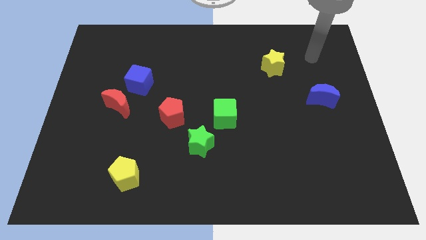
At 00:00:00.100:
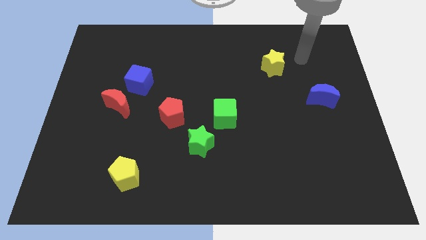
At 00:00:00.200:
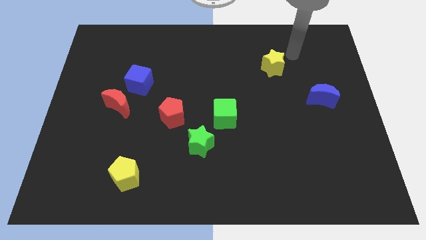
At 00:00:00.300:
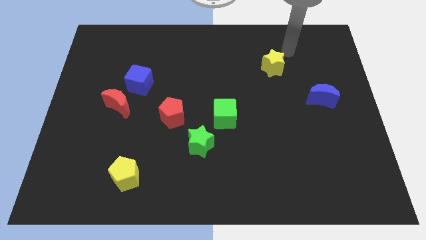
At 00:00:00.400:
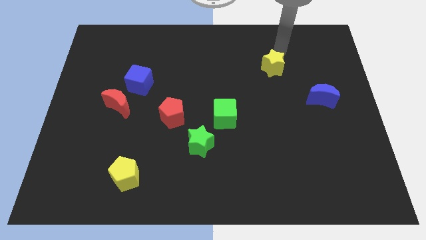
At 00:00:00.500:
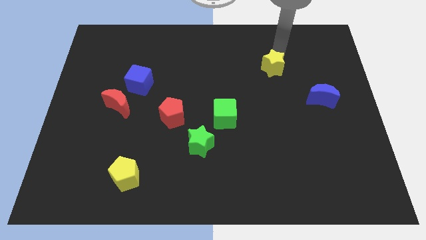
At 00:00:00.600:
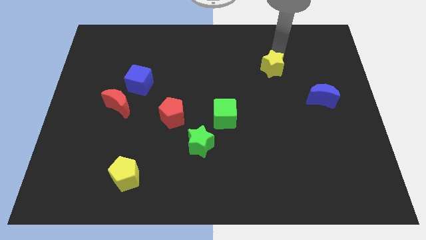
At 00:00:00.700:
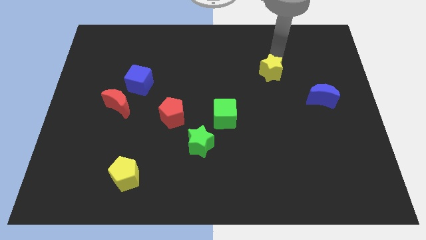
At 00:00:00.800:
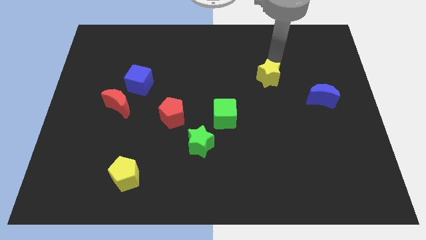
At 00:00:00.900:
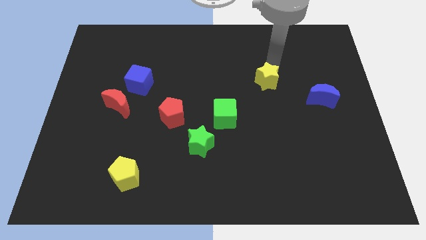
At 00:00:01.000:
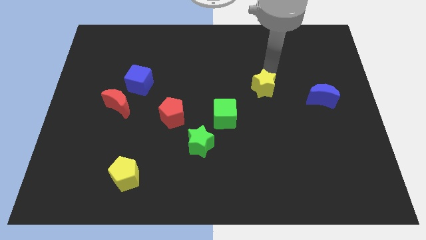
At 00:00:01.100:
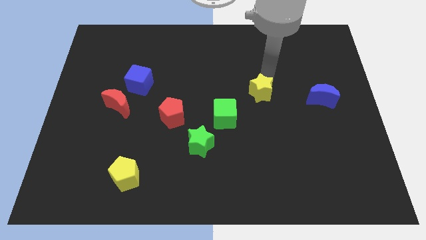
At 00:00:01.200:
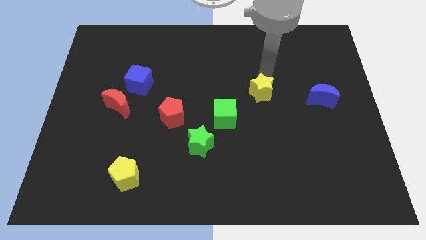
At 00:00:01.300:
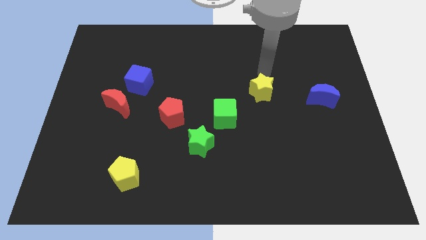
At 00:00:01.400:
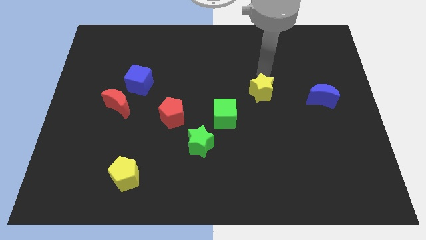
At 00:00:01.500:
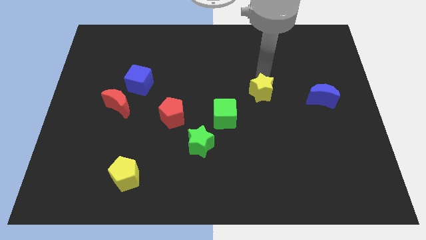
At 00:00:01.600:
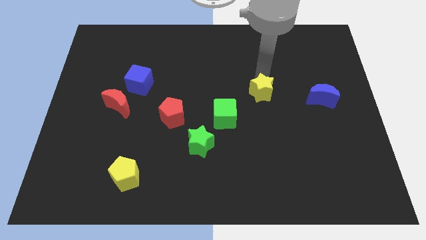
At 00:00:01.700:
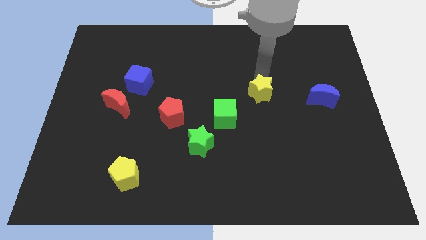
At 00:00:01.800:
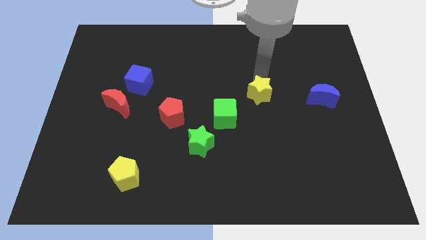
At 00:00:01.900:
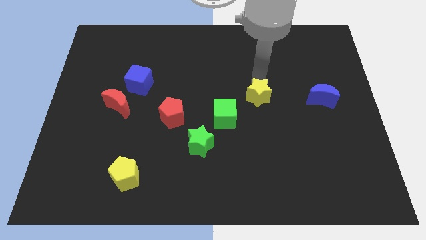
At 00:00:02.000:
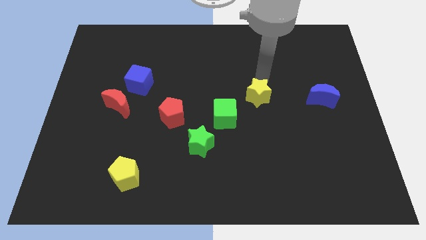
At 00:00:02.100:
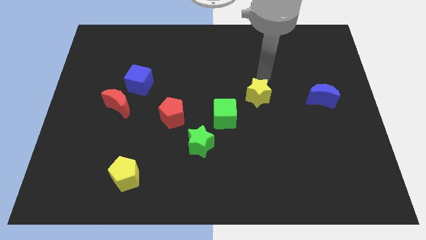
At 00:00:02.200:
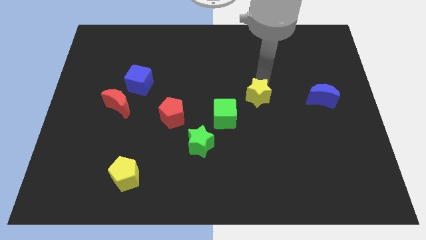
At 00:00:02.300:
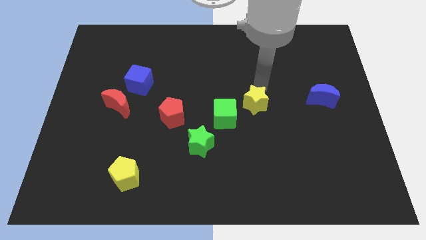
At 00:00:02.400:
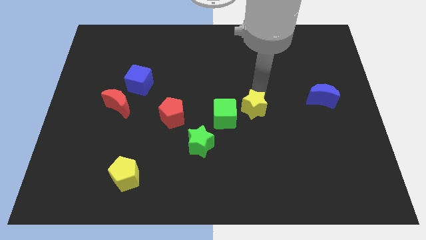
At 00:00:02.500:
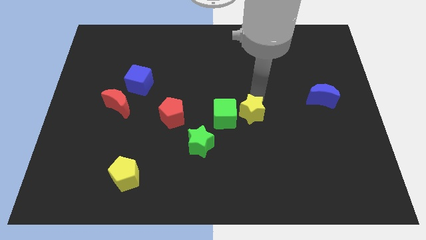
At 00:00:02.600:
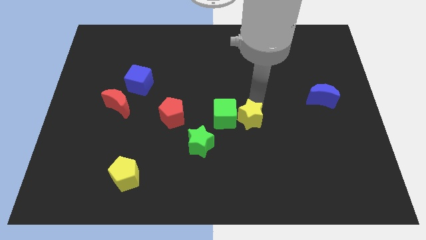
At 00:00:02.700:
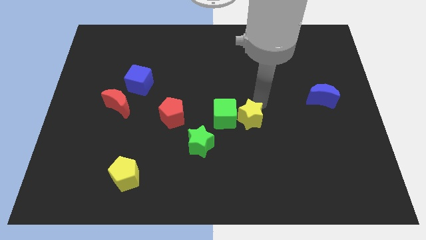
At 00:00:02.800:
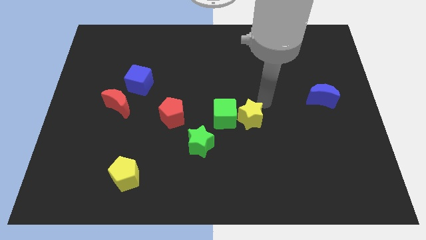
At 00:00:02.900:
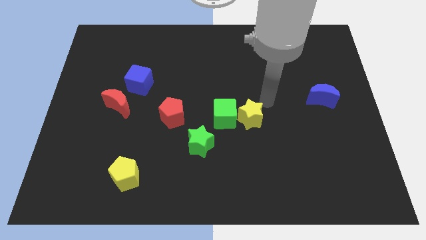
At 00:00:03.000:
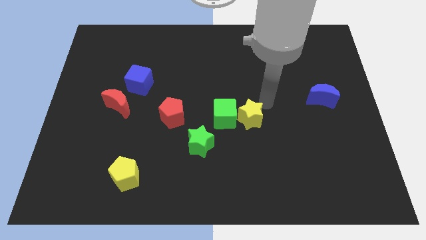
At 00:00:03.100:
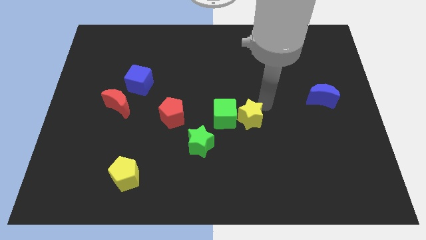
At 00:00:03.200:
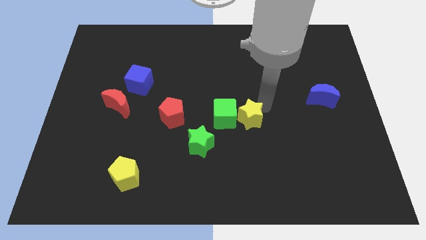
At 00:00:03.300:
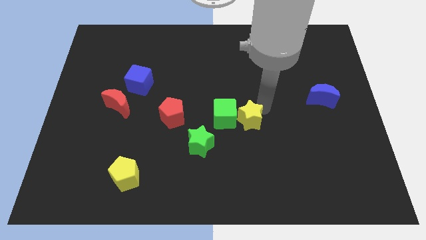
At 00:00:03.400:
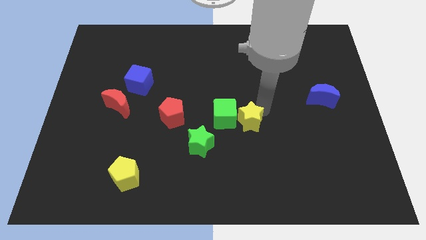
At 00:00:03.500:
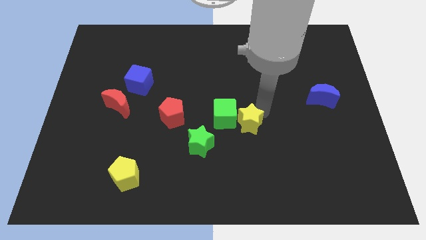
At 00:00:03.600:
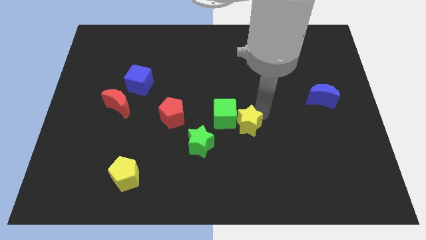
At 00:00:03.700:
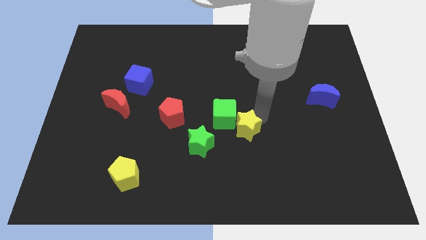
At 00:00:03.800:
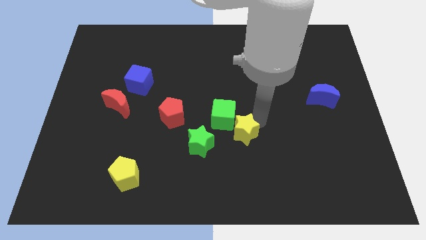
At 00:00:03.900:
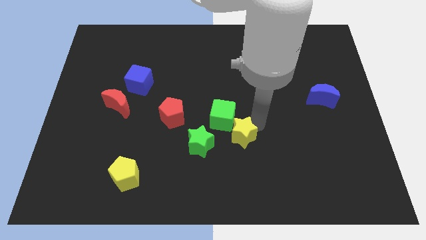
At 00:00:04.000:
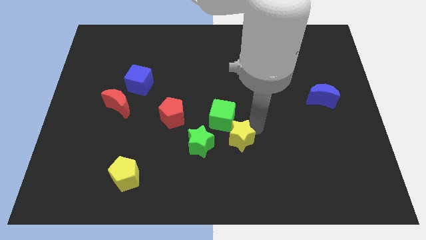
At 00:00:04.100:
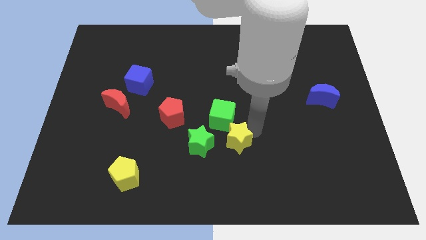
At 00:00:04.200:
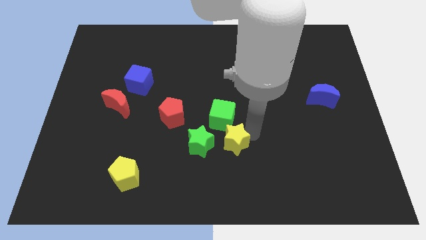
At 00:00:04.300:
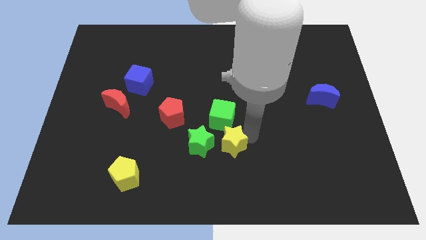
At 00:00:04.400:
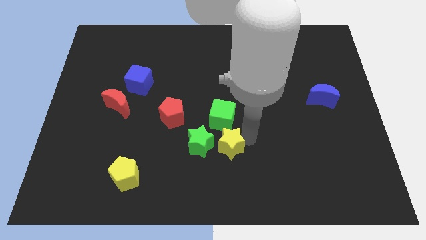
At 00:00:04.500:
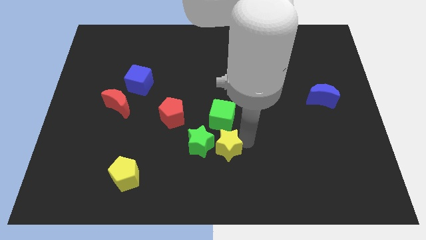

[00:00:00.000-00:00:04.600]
move the yellow star close to the green star

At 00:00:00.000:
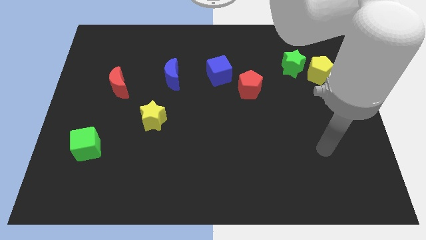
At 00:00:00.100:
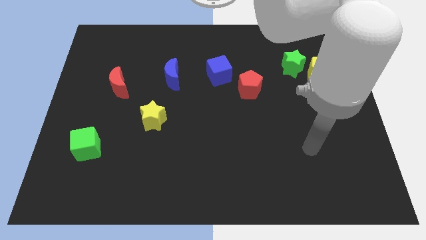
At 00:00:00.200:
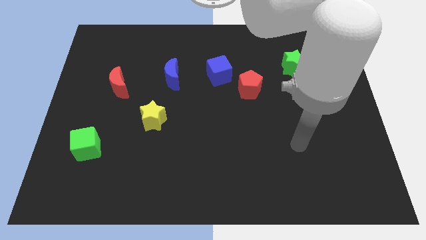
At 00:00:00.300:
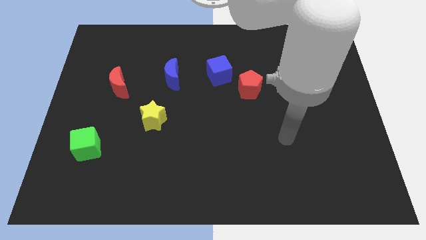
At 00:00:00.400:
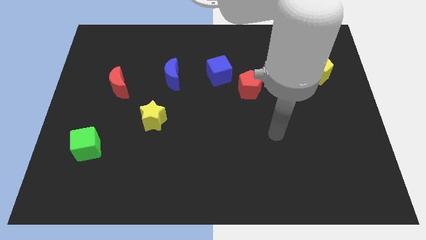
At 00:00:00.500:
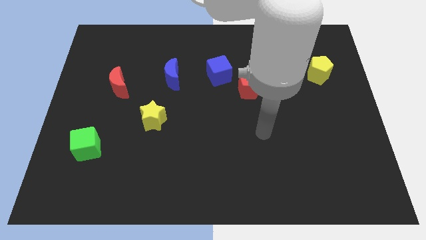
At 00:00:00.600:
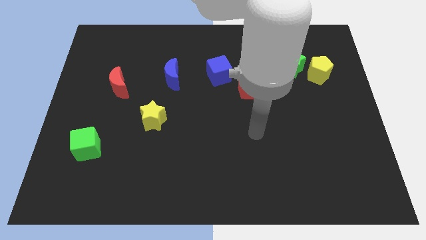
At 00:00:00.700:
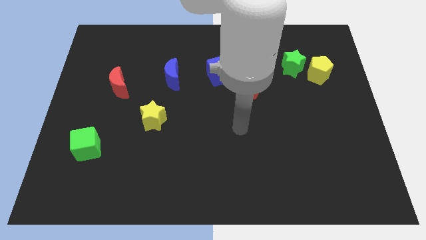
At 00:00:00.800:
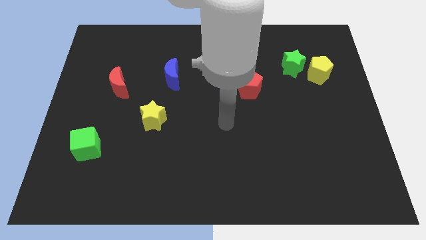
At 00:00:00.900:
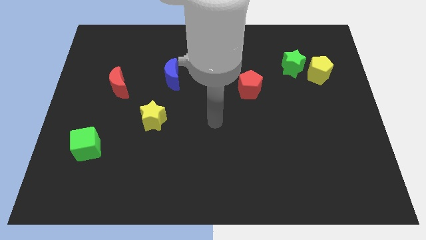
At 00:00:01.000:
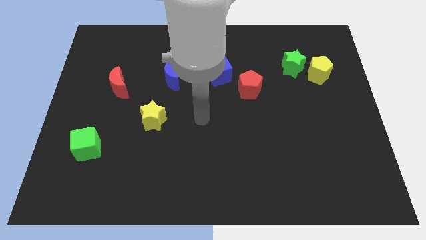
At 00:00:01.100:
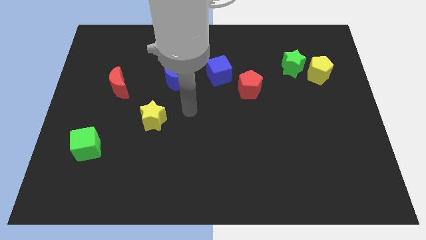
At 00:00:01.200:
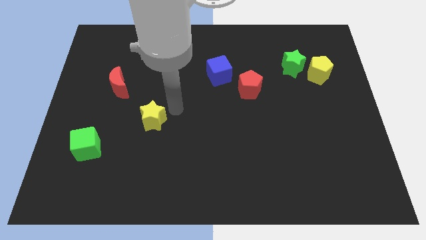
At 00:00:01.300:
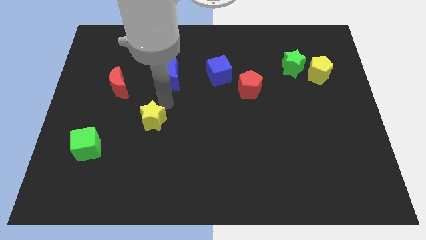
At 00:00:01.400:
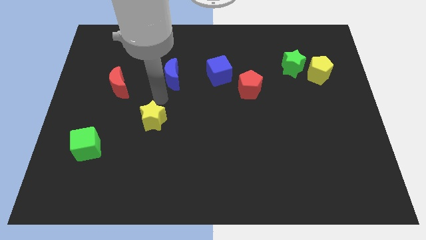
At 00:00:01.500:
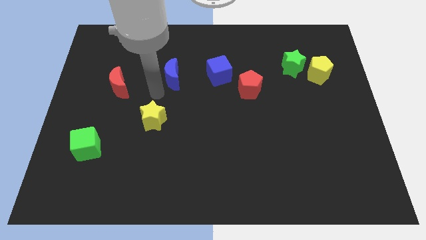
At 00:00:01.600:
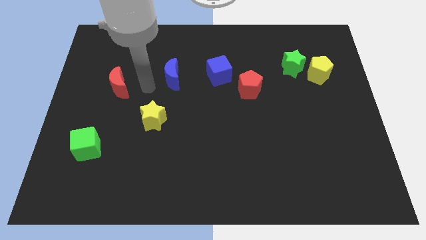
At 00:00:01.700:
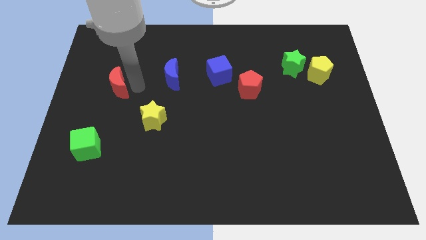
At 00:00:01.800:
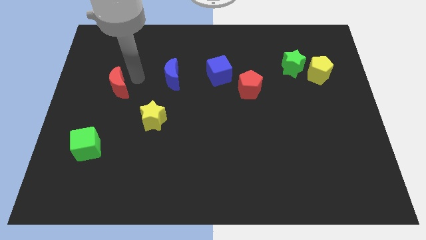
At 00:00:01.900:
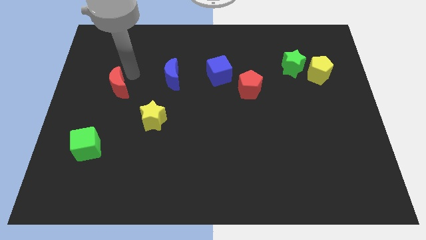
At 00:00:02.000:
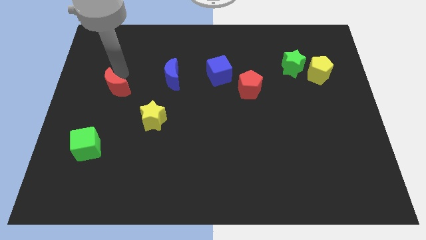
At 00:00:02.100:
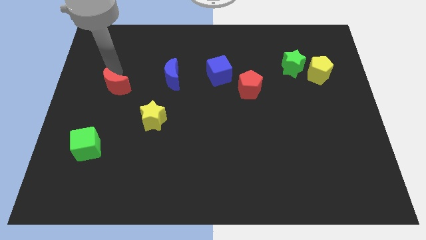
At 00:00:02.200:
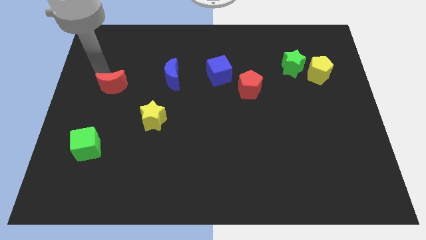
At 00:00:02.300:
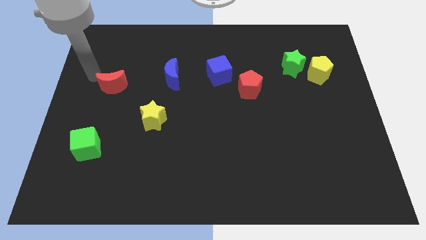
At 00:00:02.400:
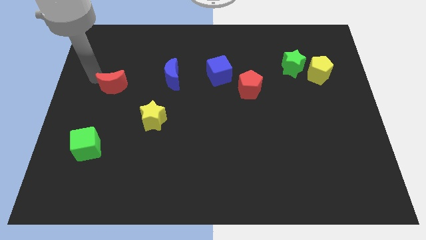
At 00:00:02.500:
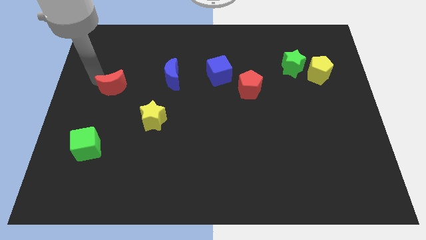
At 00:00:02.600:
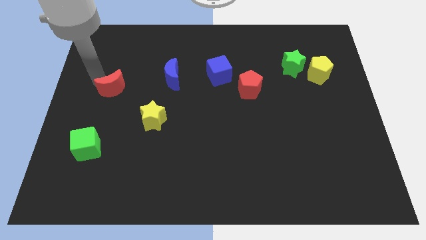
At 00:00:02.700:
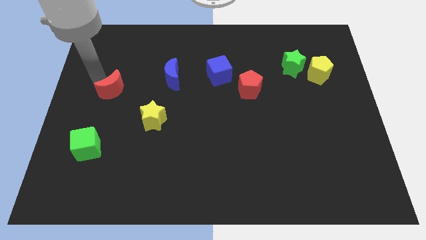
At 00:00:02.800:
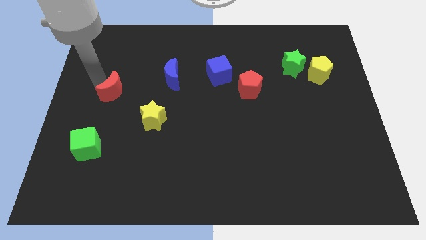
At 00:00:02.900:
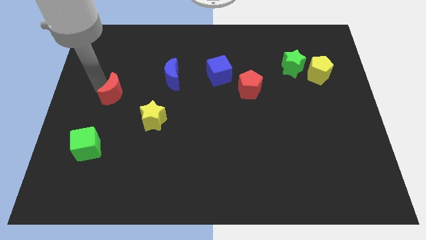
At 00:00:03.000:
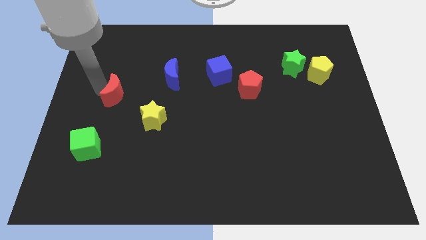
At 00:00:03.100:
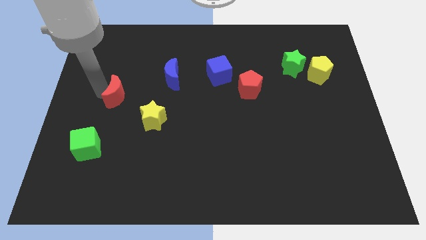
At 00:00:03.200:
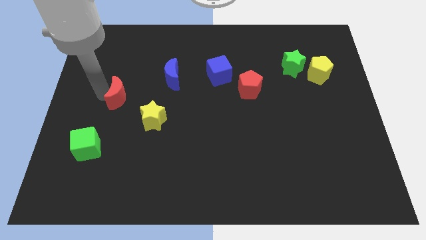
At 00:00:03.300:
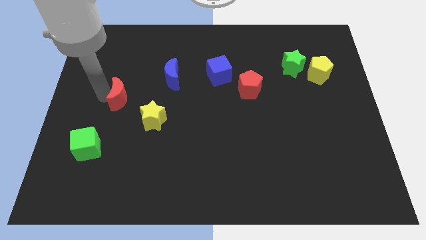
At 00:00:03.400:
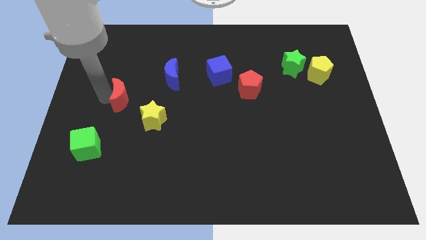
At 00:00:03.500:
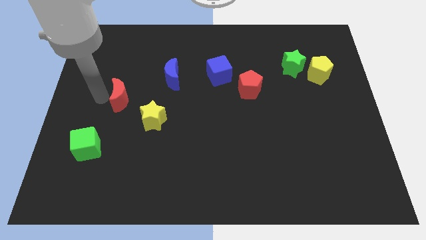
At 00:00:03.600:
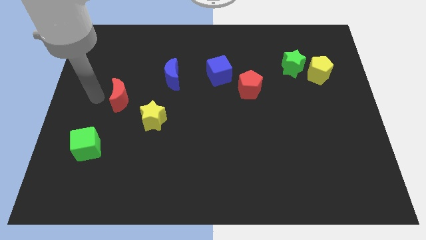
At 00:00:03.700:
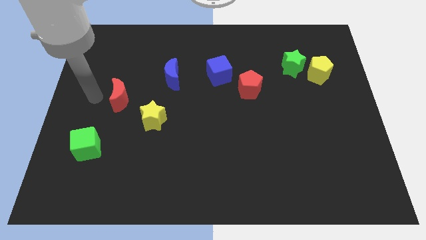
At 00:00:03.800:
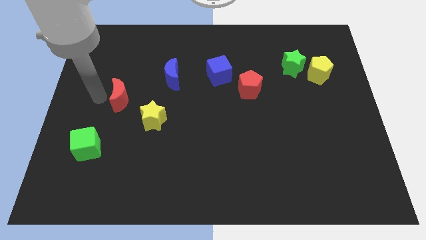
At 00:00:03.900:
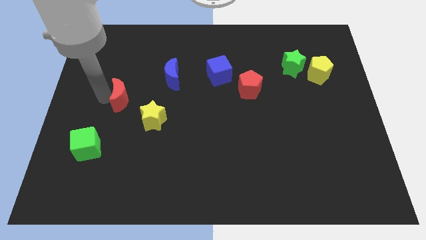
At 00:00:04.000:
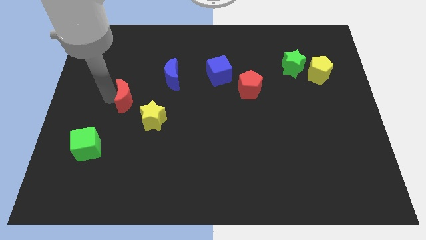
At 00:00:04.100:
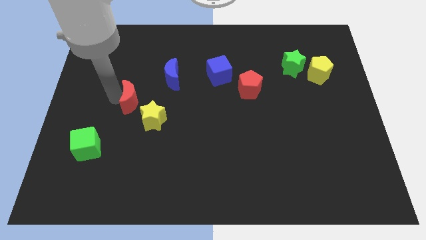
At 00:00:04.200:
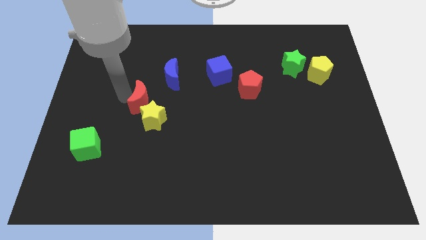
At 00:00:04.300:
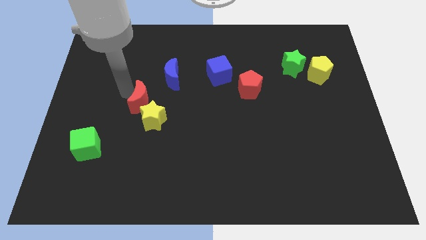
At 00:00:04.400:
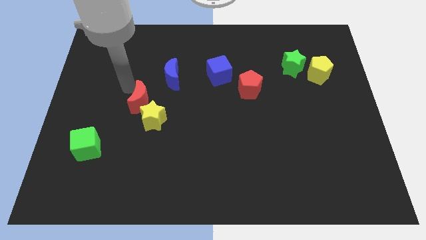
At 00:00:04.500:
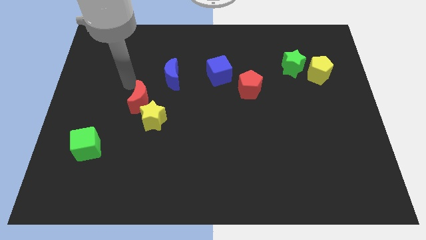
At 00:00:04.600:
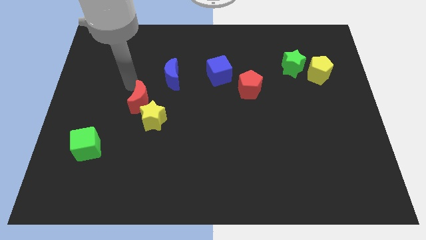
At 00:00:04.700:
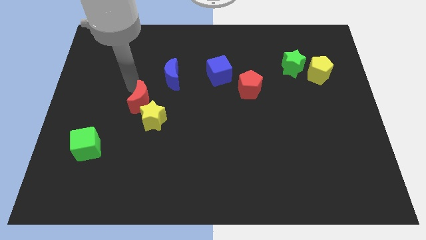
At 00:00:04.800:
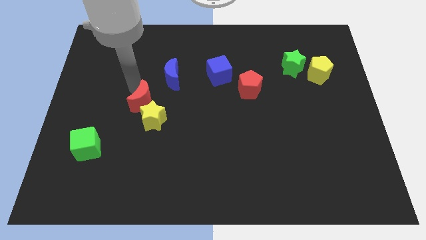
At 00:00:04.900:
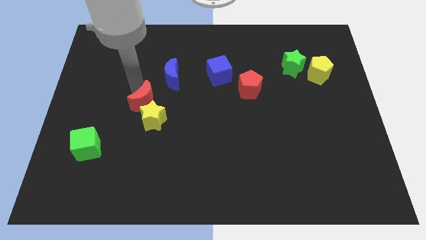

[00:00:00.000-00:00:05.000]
push the red moon to the yellow star
